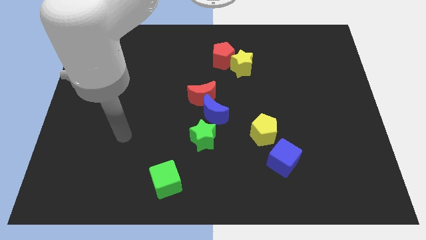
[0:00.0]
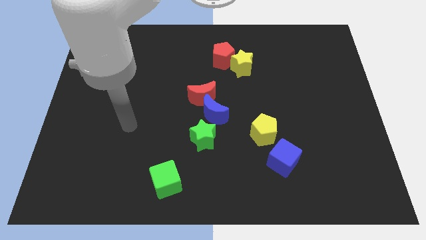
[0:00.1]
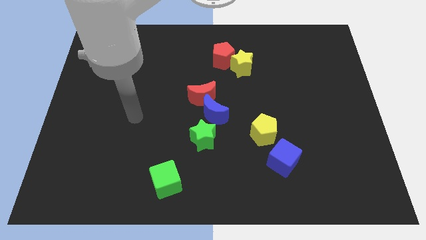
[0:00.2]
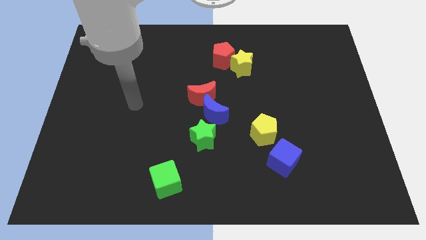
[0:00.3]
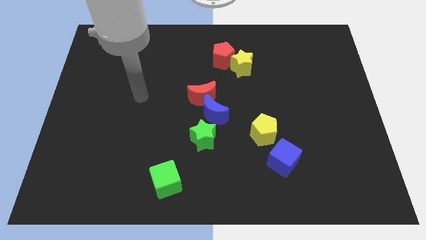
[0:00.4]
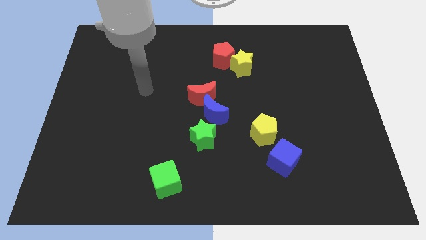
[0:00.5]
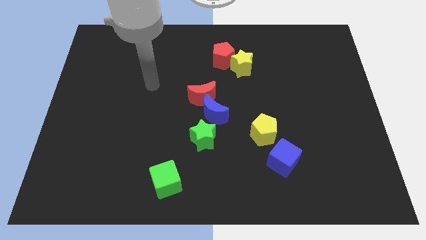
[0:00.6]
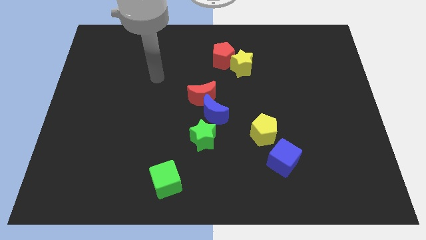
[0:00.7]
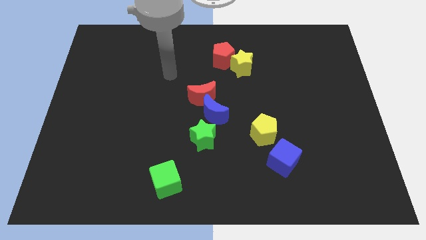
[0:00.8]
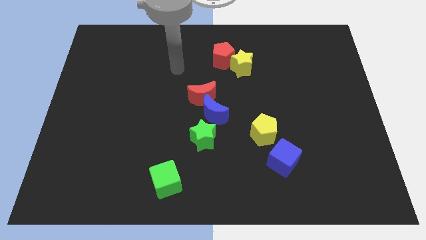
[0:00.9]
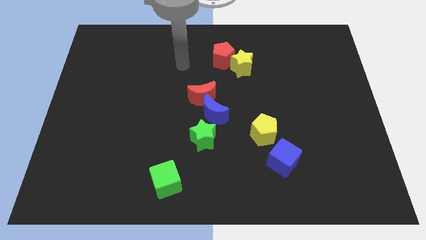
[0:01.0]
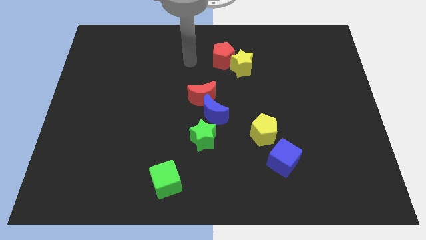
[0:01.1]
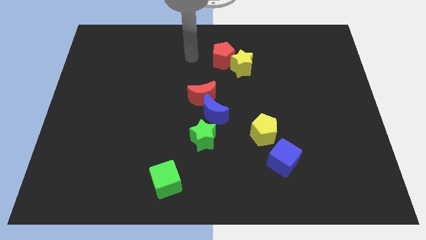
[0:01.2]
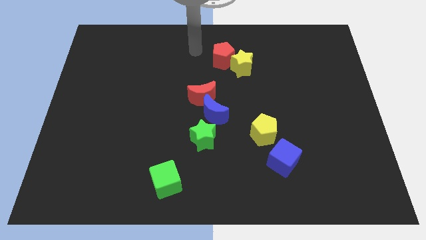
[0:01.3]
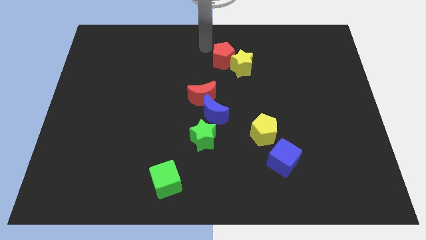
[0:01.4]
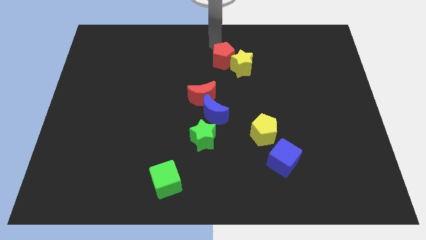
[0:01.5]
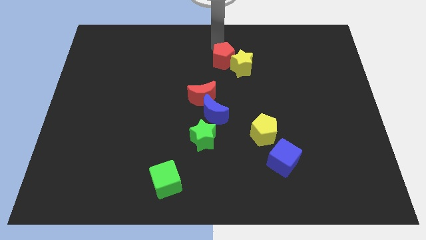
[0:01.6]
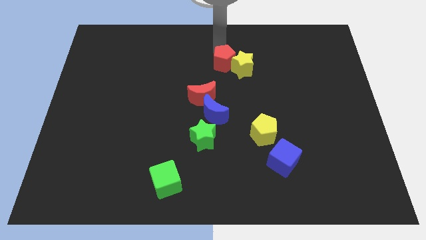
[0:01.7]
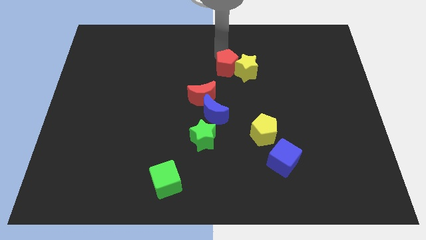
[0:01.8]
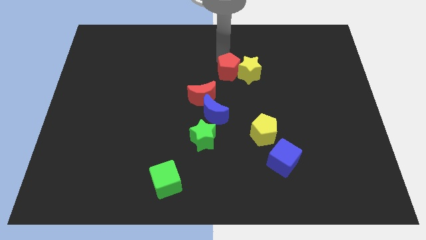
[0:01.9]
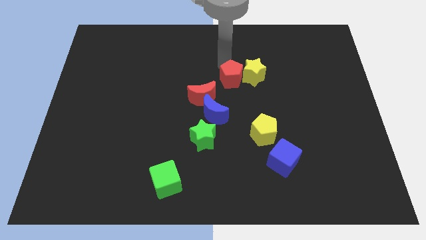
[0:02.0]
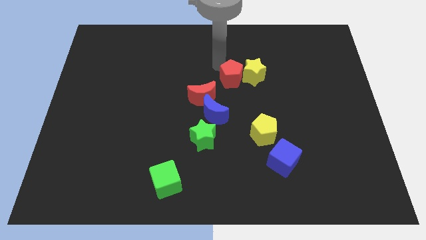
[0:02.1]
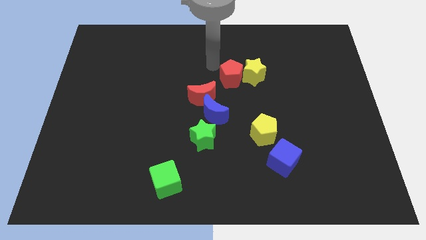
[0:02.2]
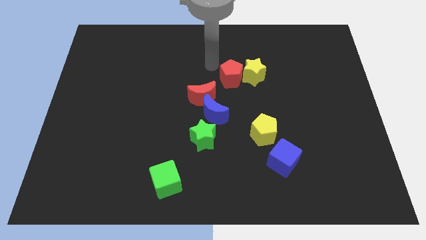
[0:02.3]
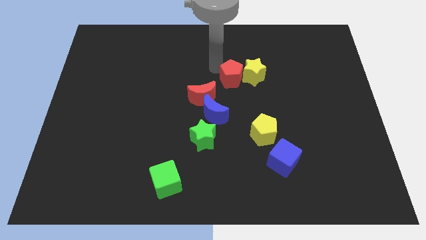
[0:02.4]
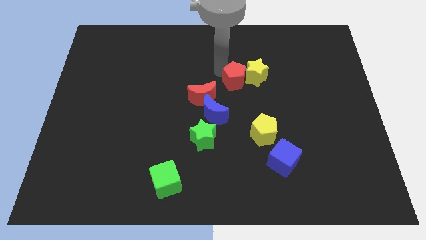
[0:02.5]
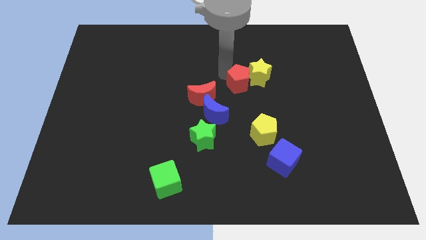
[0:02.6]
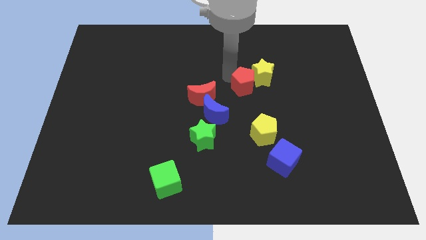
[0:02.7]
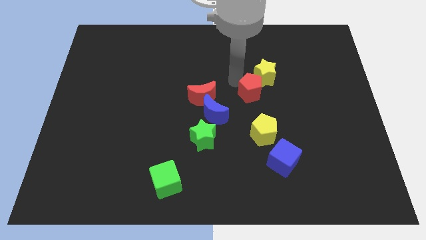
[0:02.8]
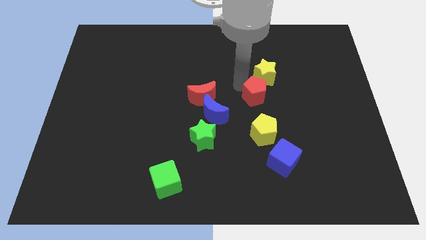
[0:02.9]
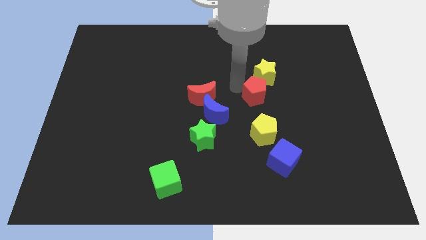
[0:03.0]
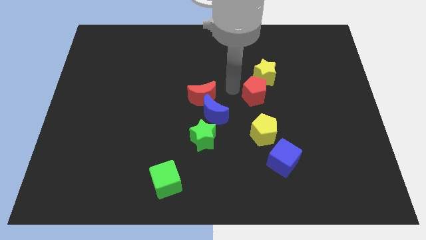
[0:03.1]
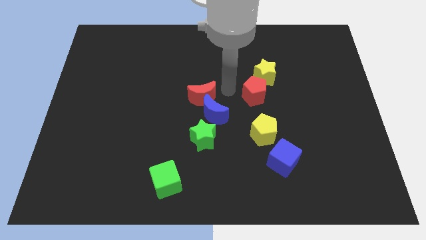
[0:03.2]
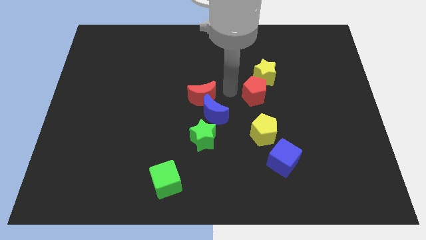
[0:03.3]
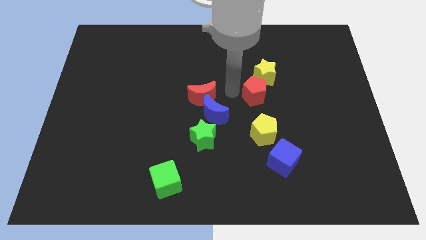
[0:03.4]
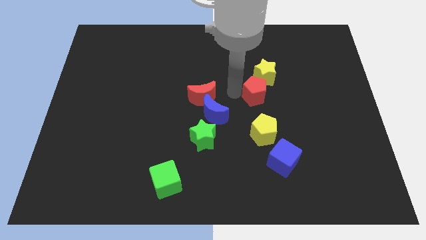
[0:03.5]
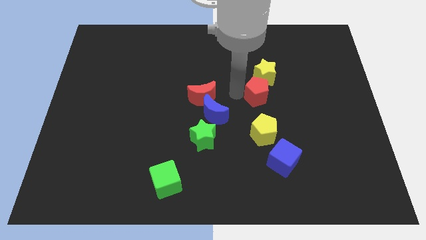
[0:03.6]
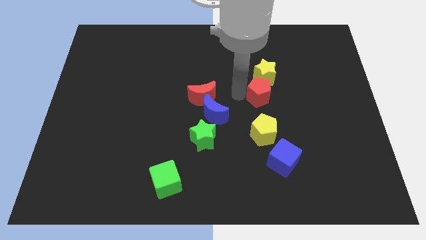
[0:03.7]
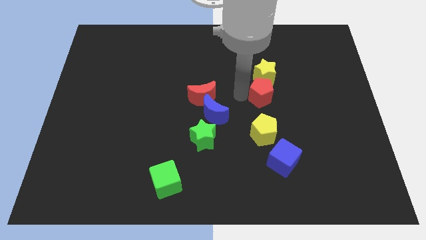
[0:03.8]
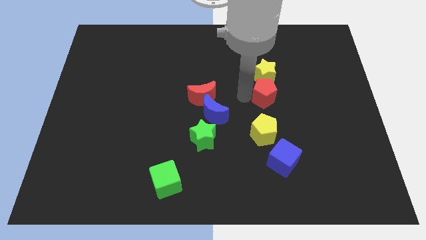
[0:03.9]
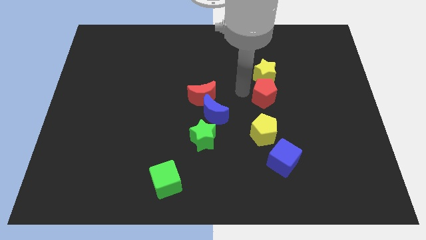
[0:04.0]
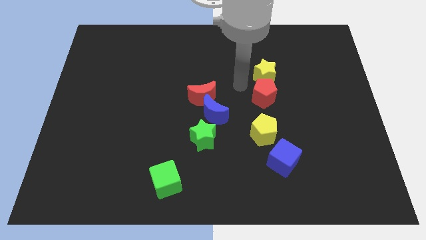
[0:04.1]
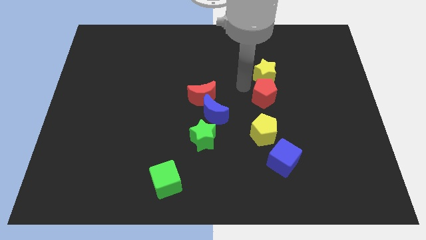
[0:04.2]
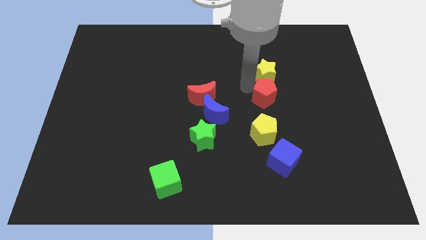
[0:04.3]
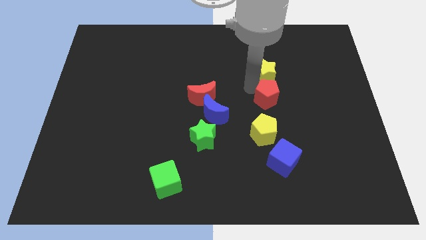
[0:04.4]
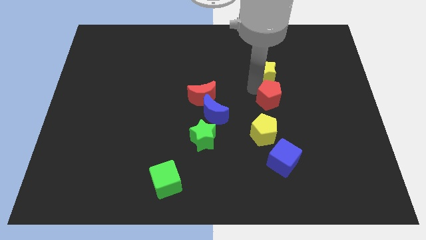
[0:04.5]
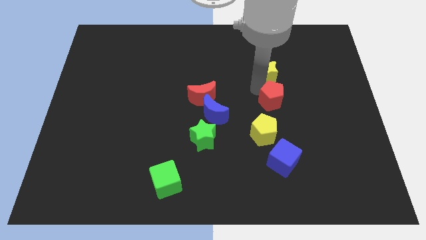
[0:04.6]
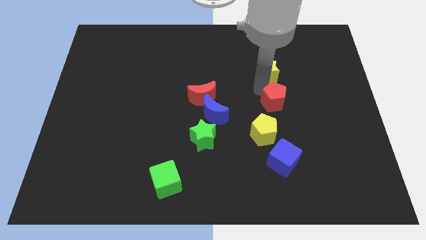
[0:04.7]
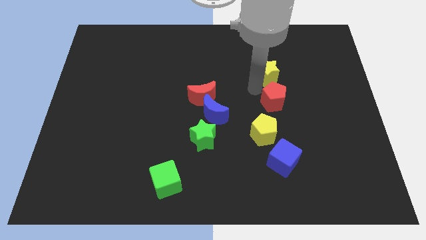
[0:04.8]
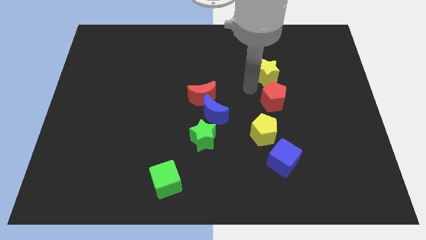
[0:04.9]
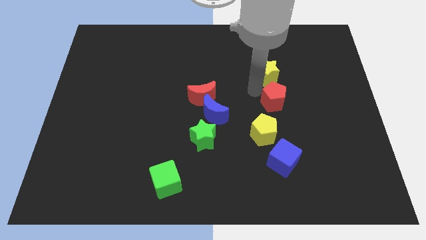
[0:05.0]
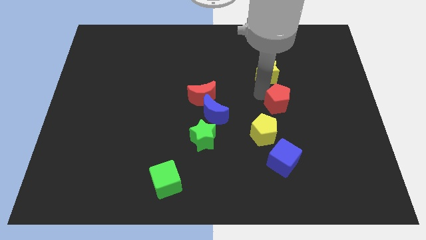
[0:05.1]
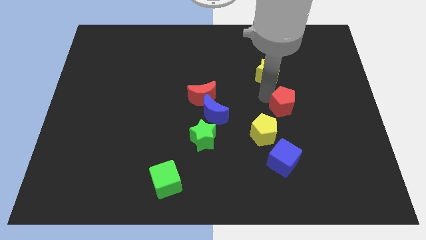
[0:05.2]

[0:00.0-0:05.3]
push the red pentagon diagonally down and right

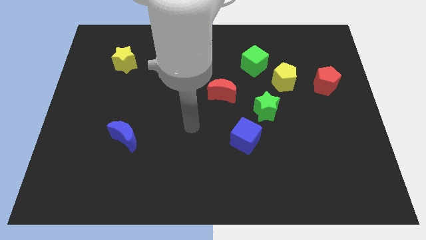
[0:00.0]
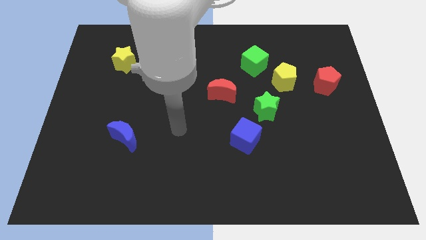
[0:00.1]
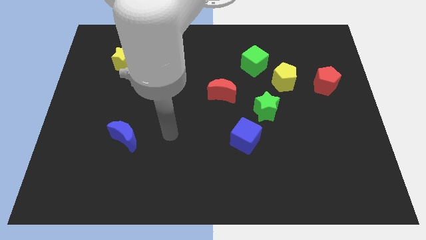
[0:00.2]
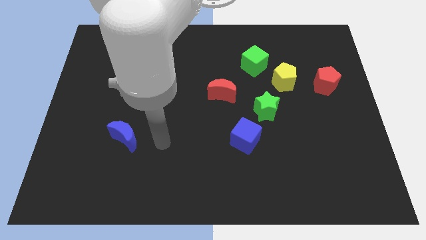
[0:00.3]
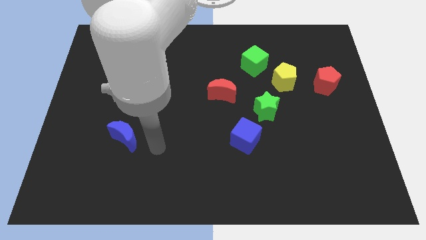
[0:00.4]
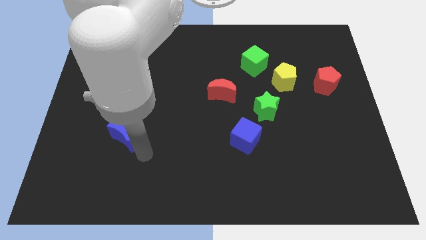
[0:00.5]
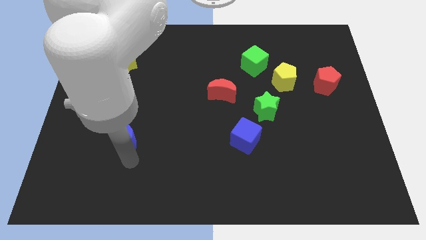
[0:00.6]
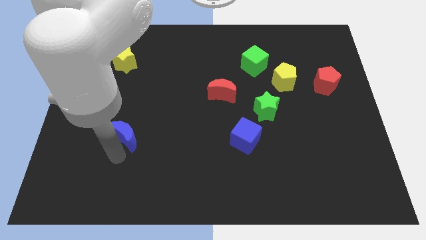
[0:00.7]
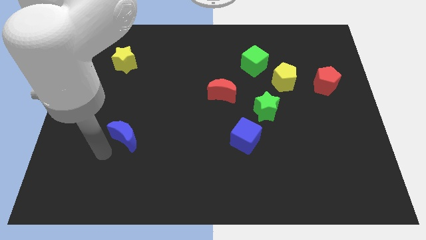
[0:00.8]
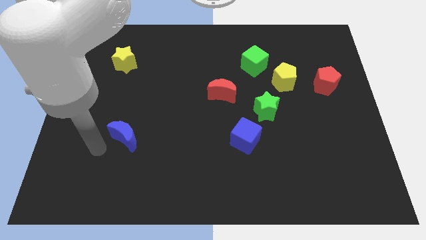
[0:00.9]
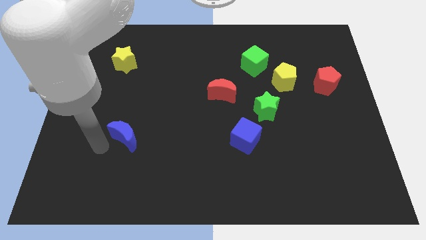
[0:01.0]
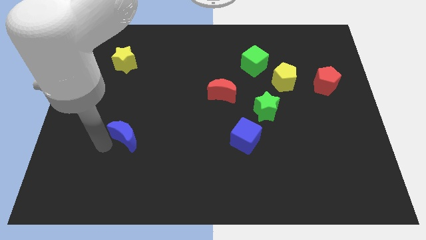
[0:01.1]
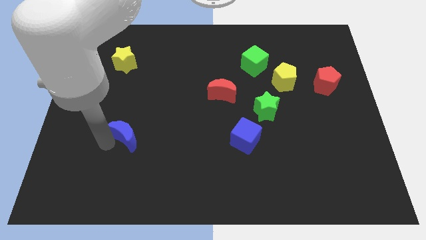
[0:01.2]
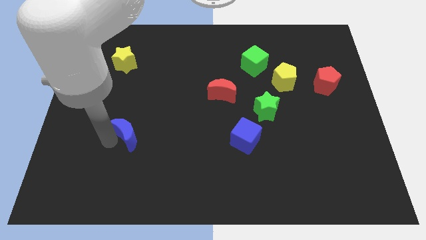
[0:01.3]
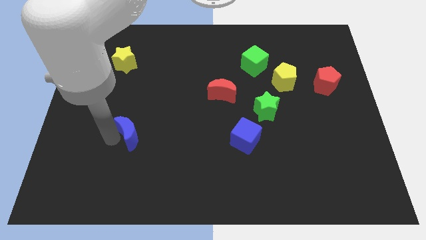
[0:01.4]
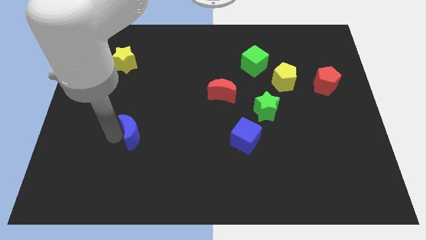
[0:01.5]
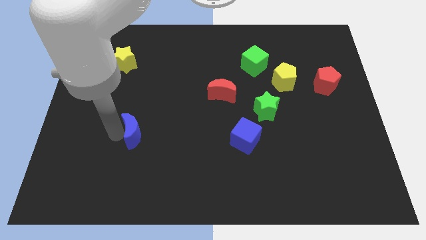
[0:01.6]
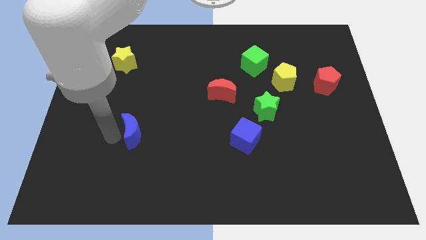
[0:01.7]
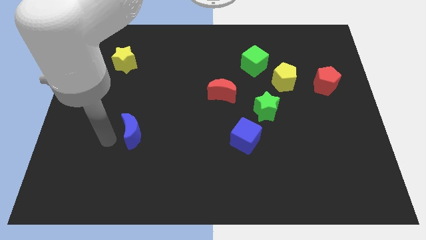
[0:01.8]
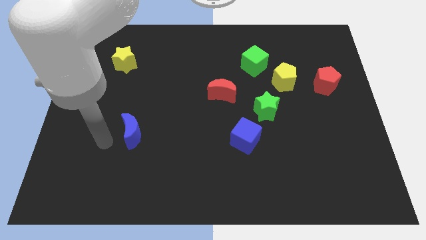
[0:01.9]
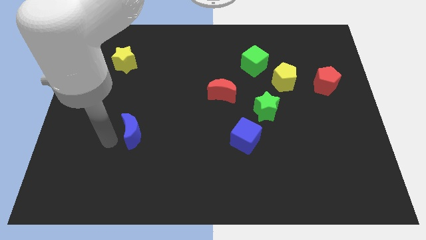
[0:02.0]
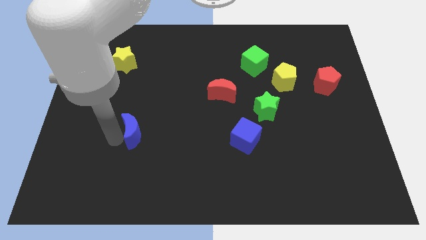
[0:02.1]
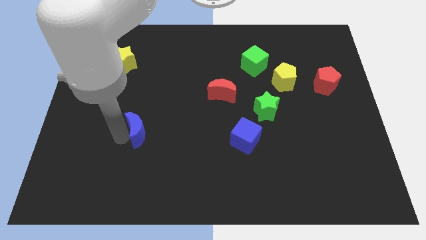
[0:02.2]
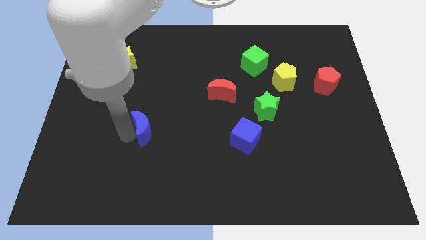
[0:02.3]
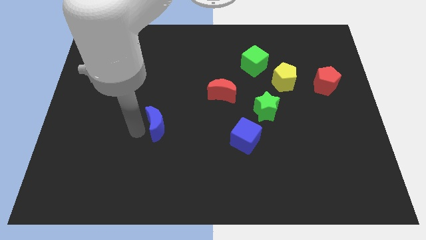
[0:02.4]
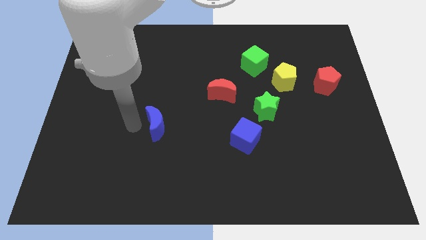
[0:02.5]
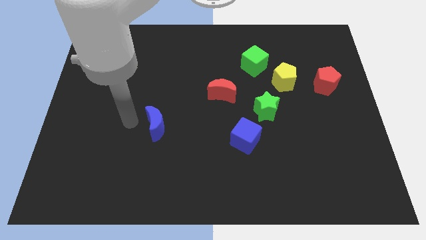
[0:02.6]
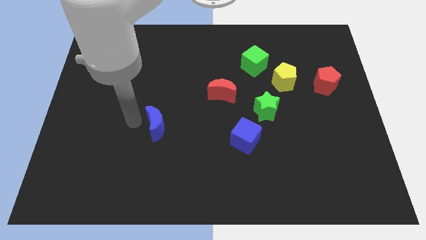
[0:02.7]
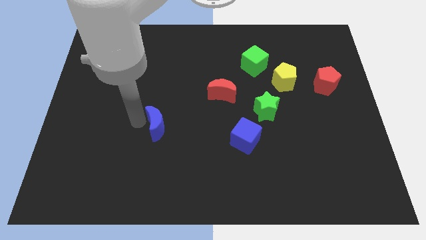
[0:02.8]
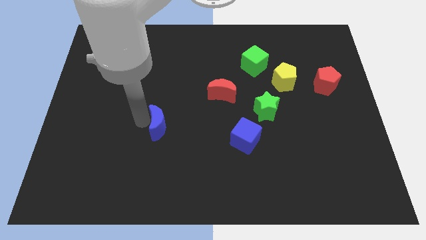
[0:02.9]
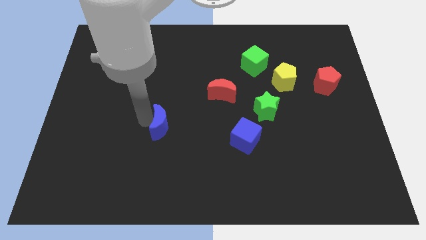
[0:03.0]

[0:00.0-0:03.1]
slide the blue moon to the right a little bit
